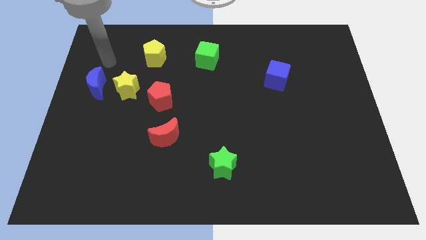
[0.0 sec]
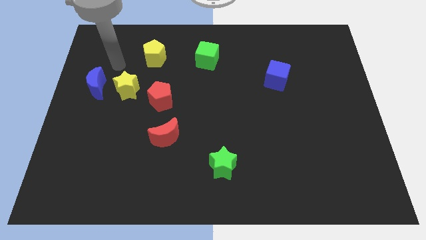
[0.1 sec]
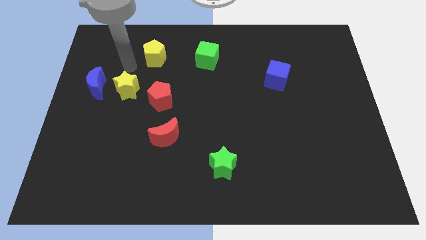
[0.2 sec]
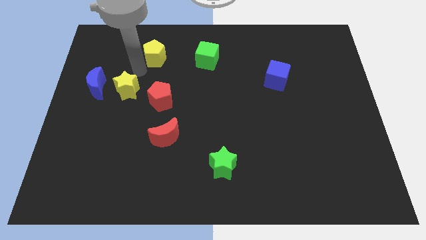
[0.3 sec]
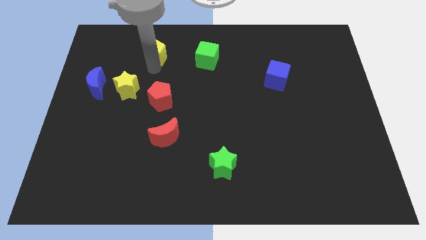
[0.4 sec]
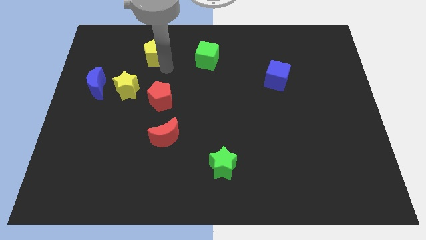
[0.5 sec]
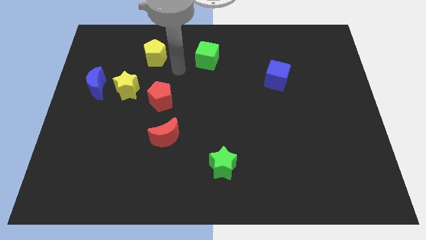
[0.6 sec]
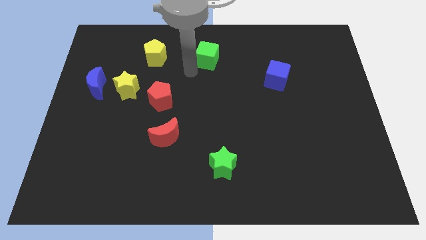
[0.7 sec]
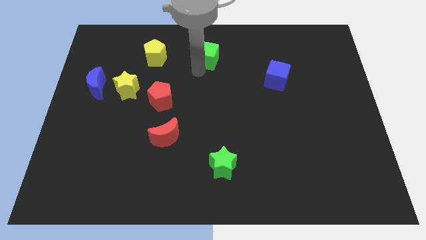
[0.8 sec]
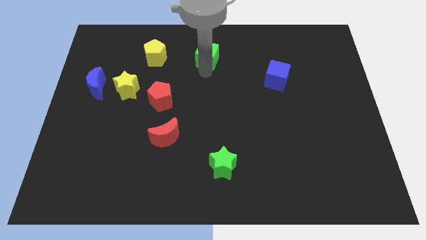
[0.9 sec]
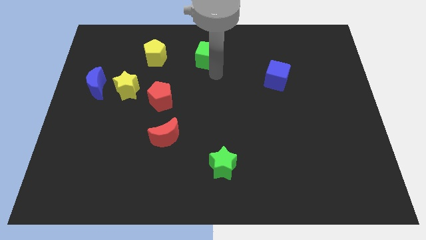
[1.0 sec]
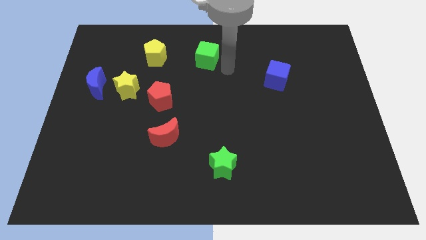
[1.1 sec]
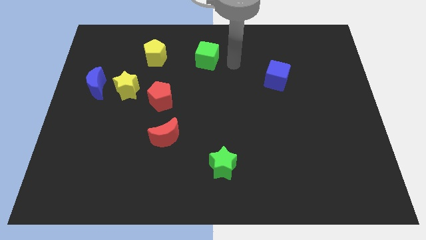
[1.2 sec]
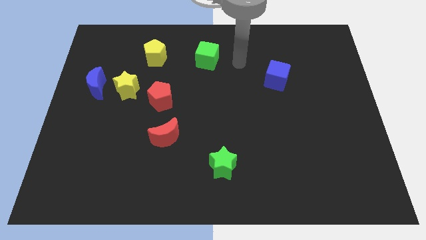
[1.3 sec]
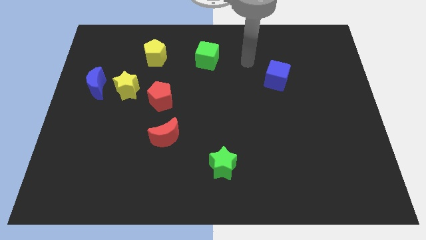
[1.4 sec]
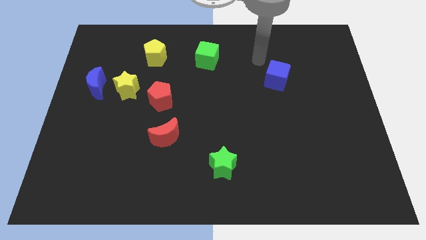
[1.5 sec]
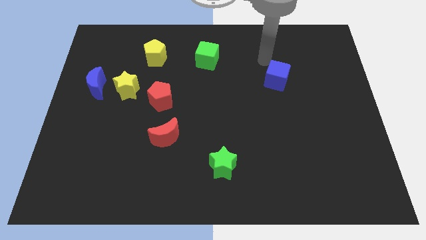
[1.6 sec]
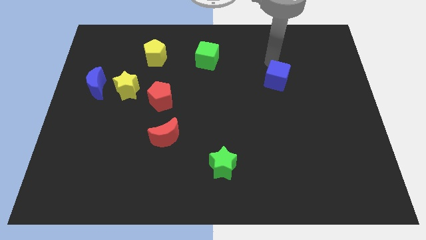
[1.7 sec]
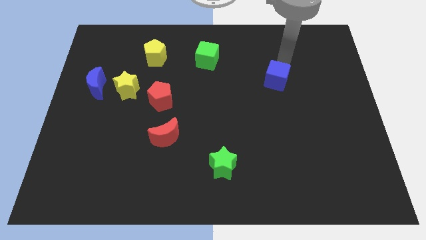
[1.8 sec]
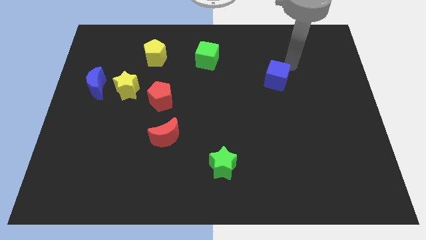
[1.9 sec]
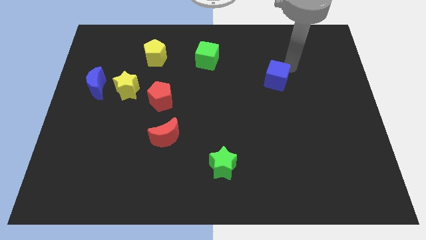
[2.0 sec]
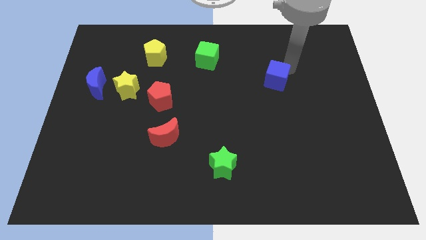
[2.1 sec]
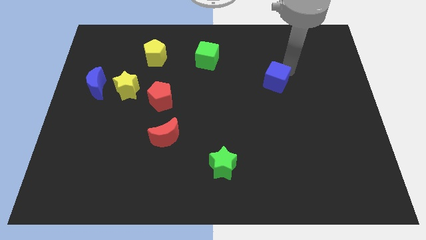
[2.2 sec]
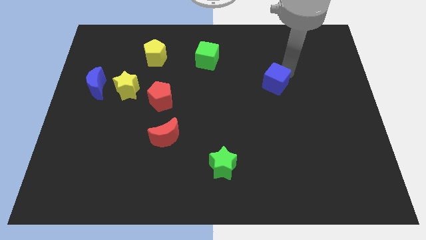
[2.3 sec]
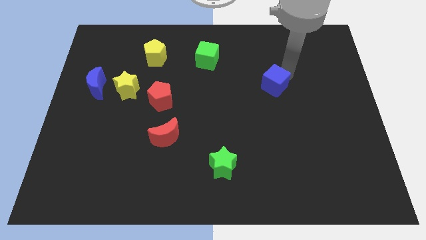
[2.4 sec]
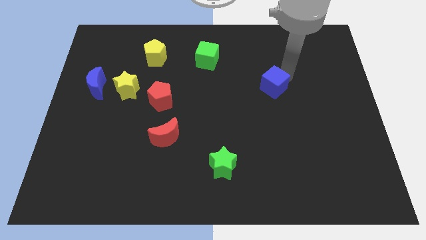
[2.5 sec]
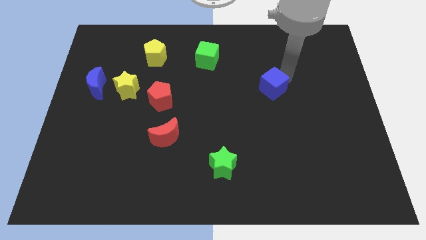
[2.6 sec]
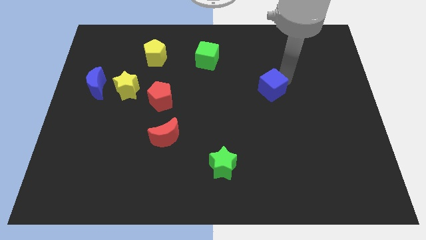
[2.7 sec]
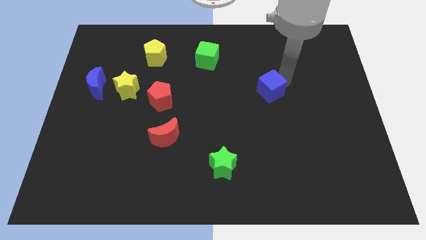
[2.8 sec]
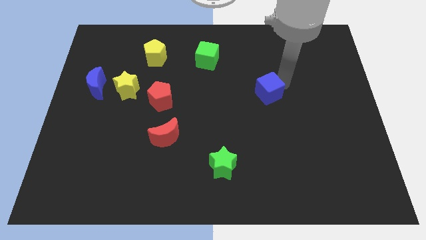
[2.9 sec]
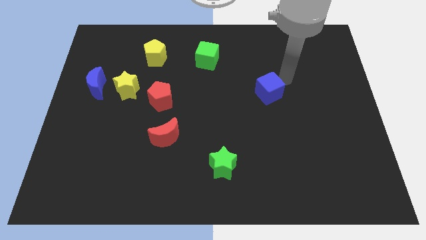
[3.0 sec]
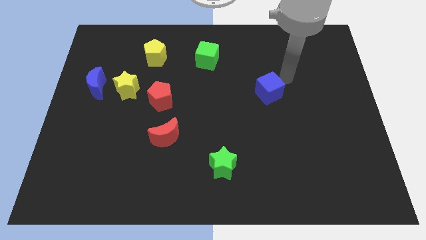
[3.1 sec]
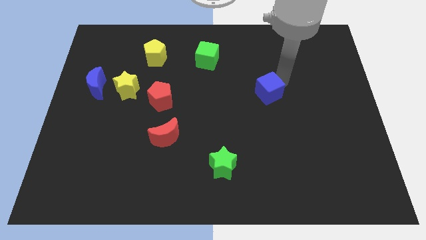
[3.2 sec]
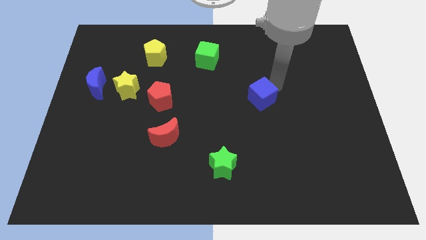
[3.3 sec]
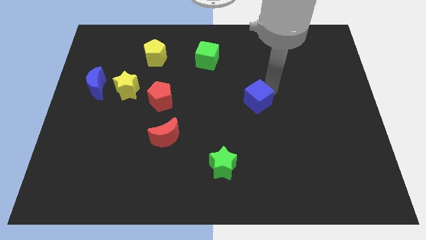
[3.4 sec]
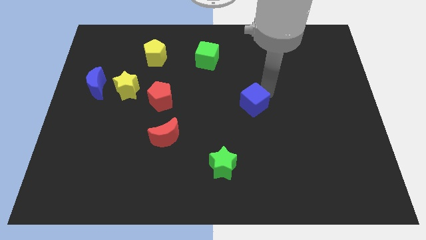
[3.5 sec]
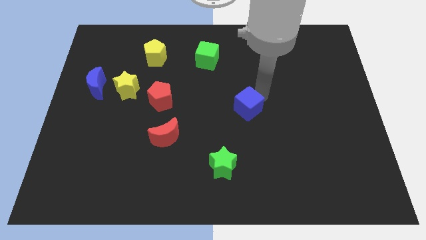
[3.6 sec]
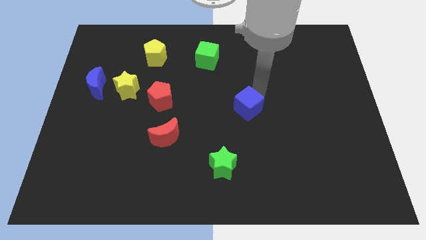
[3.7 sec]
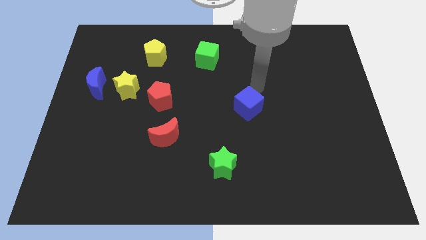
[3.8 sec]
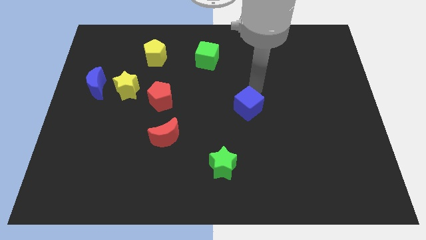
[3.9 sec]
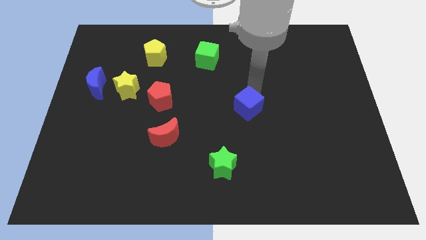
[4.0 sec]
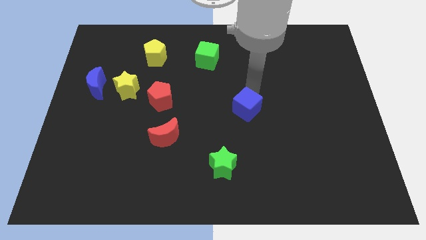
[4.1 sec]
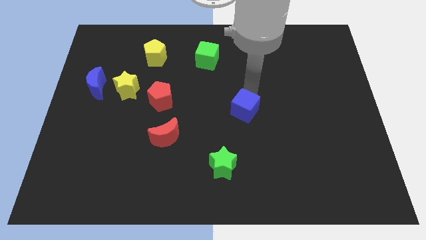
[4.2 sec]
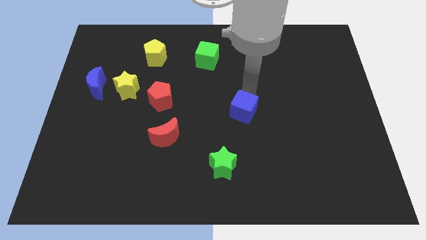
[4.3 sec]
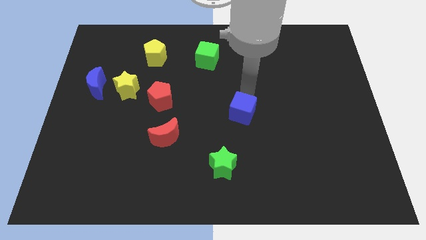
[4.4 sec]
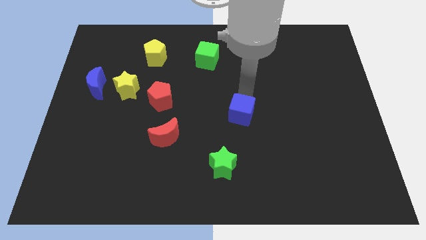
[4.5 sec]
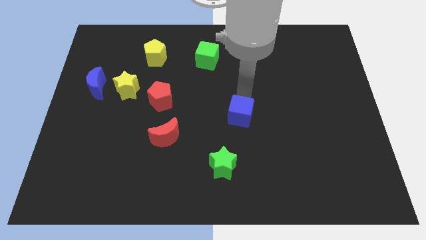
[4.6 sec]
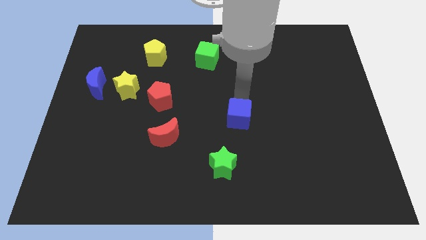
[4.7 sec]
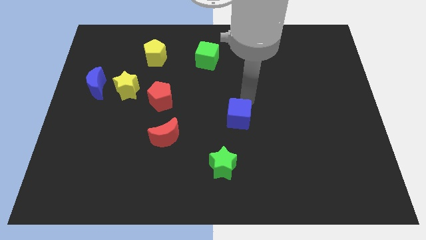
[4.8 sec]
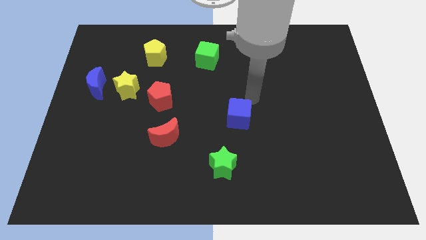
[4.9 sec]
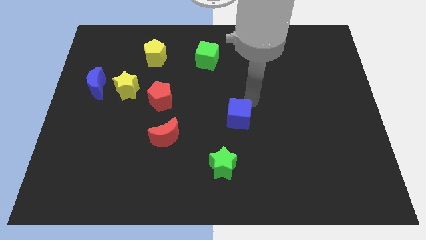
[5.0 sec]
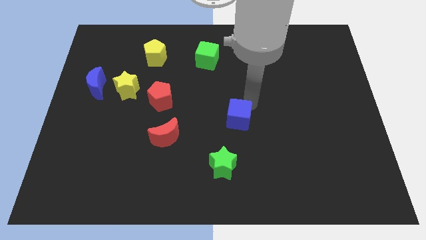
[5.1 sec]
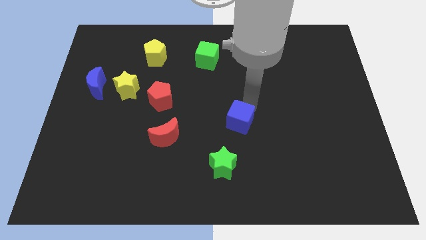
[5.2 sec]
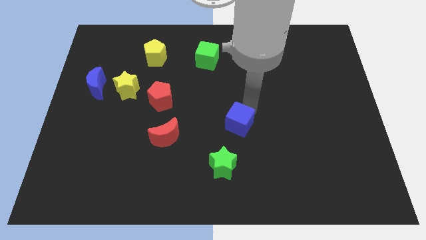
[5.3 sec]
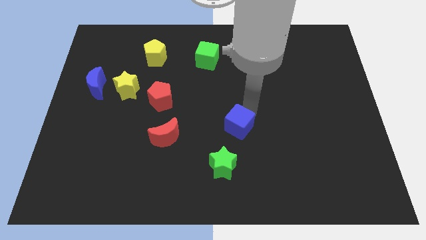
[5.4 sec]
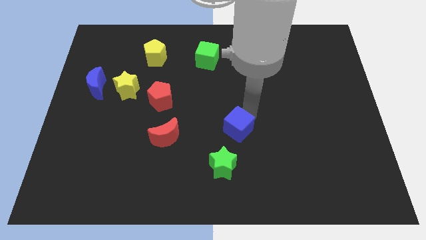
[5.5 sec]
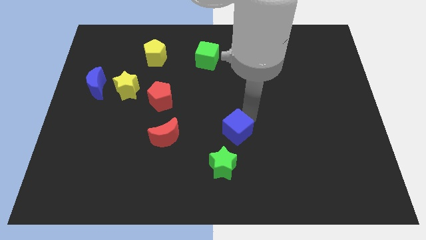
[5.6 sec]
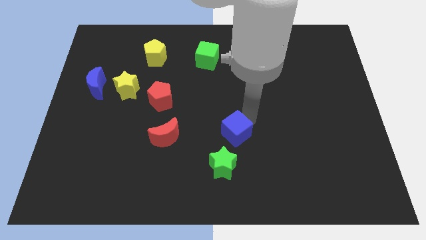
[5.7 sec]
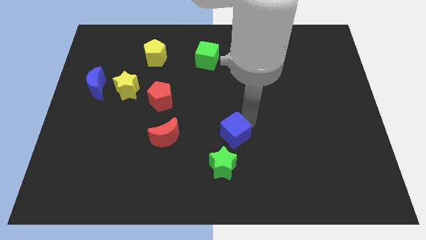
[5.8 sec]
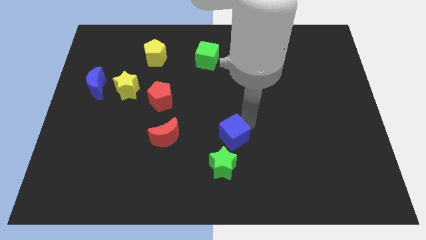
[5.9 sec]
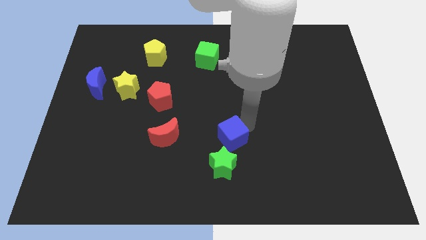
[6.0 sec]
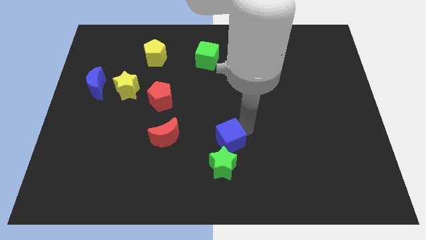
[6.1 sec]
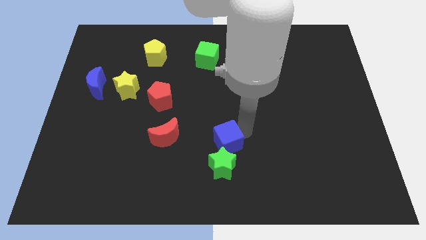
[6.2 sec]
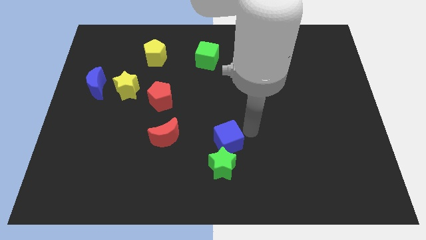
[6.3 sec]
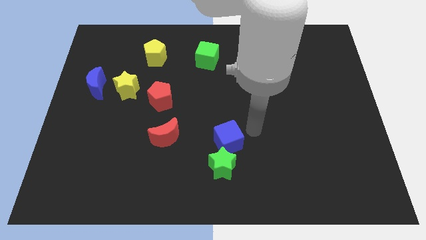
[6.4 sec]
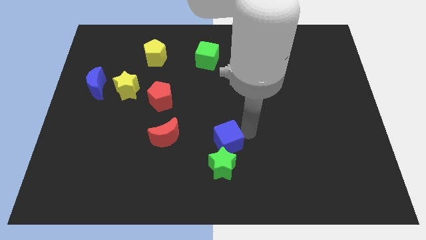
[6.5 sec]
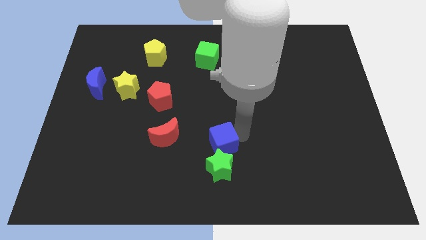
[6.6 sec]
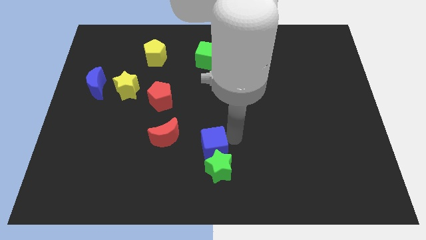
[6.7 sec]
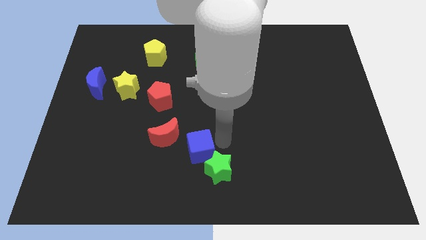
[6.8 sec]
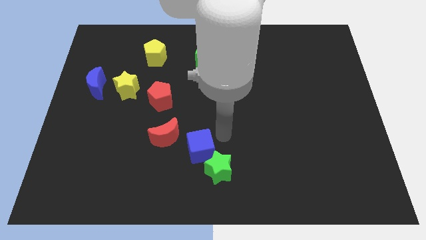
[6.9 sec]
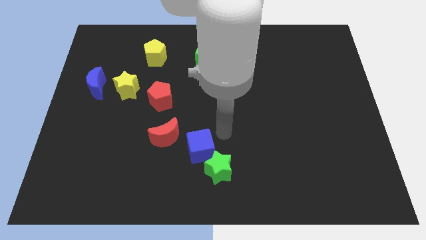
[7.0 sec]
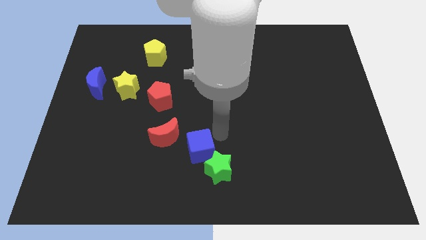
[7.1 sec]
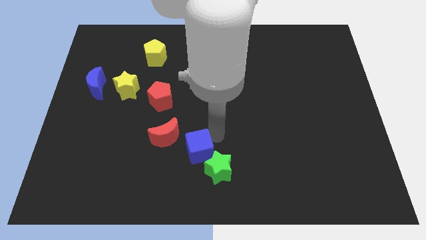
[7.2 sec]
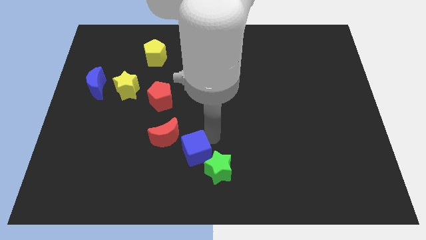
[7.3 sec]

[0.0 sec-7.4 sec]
push the blue cube to the left side of the green star
